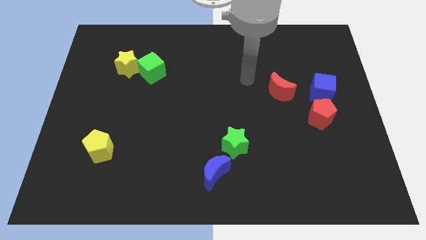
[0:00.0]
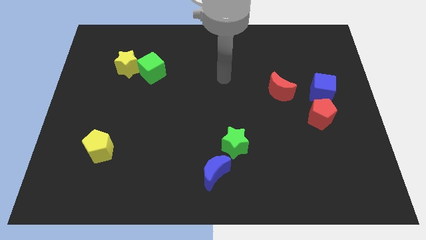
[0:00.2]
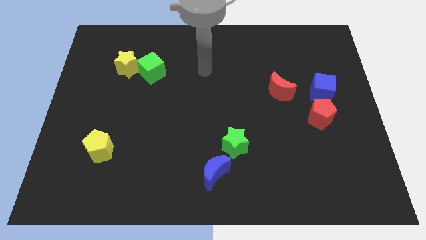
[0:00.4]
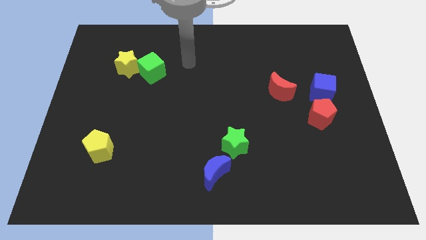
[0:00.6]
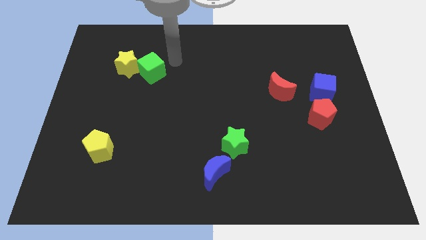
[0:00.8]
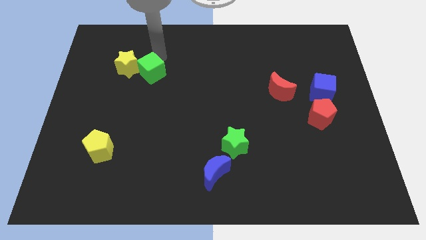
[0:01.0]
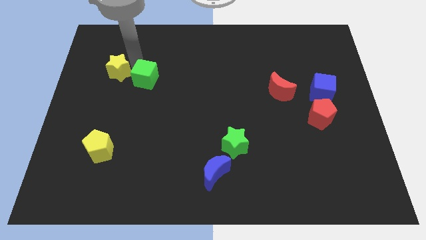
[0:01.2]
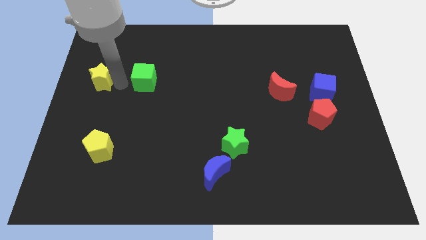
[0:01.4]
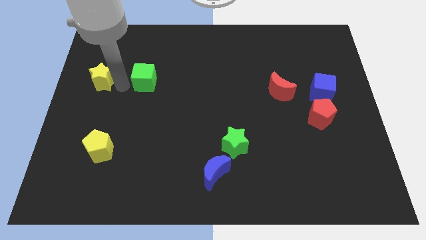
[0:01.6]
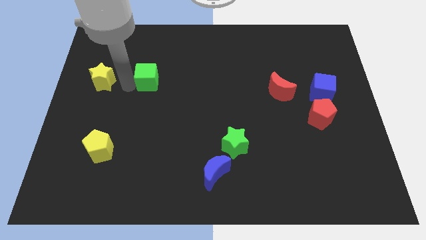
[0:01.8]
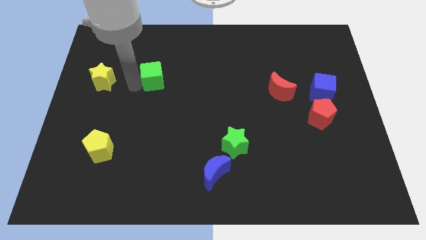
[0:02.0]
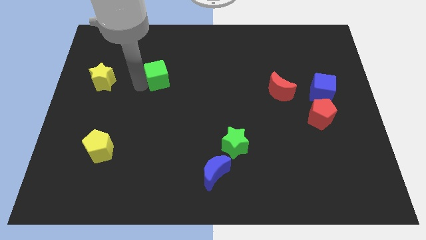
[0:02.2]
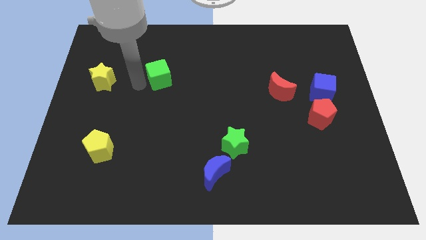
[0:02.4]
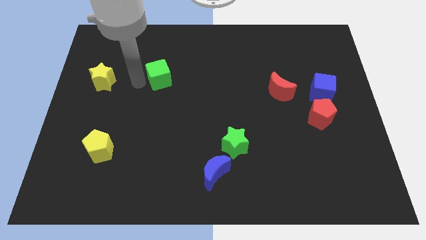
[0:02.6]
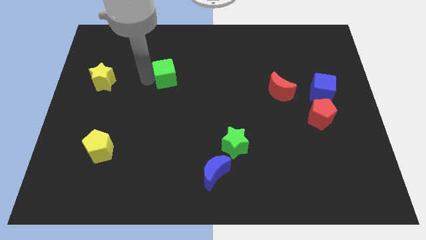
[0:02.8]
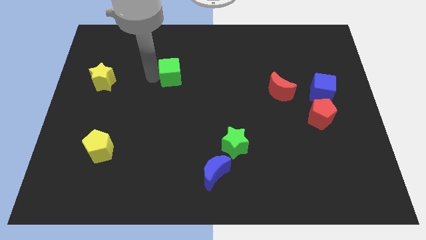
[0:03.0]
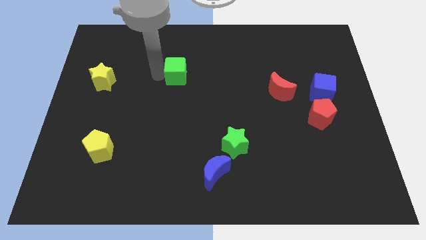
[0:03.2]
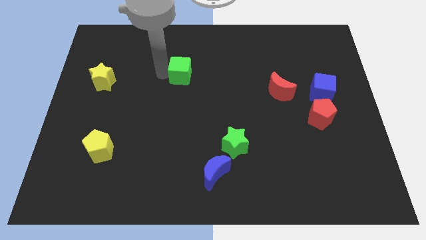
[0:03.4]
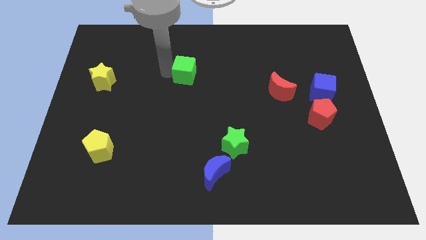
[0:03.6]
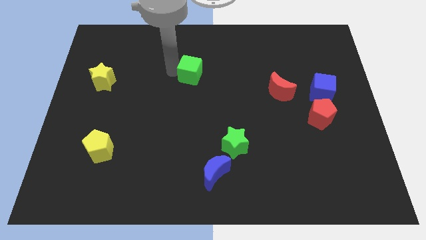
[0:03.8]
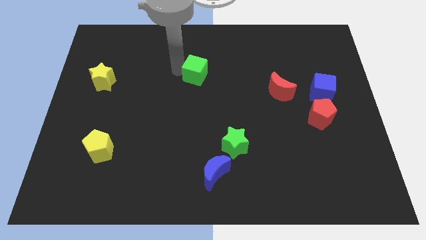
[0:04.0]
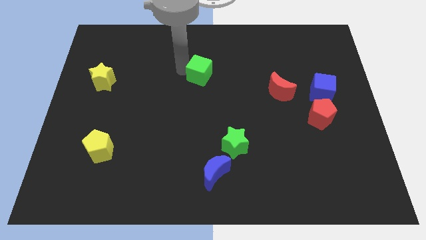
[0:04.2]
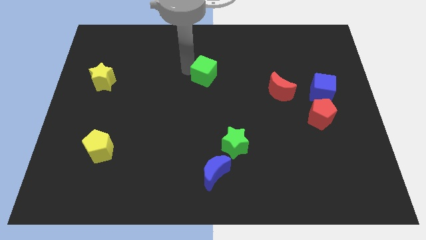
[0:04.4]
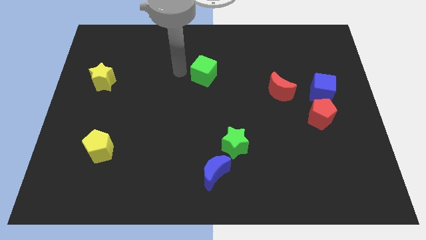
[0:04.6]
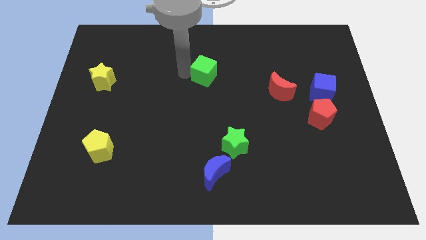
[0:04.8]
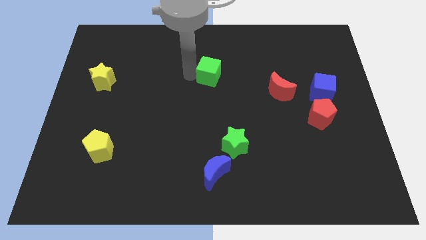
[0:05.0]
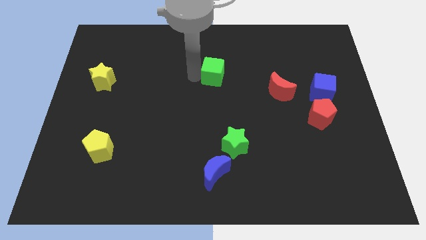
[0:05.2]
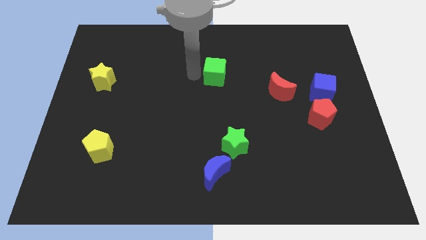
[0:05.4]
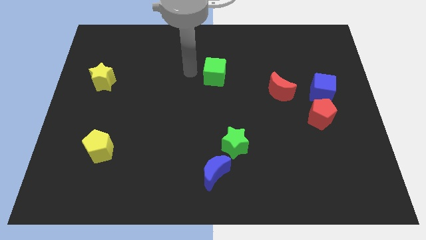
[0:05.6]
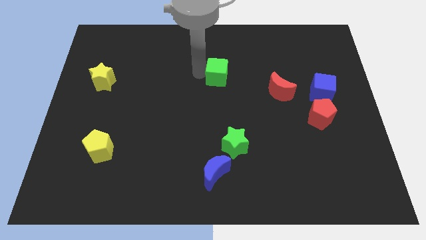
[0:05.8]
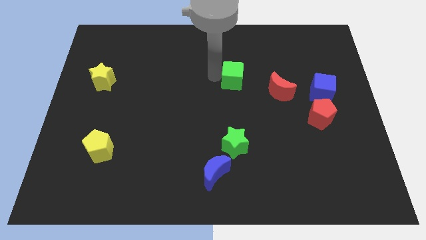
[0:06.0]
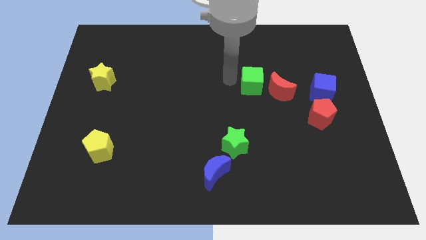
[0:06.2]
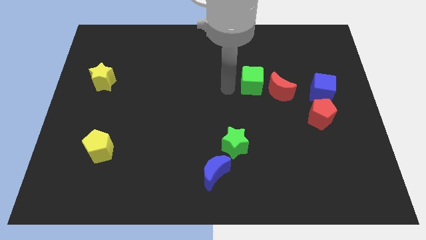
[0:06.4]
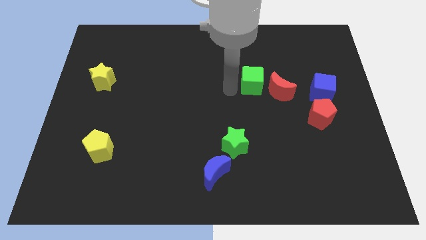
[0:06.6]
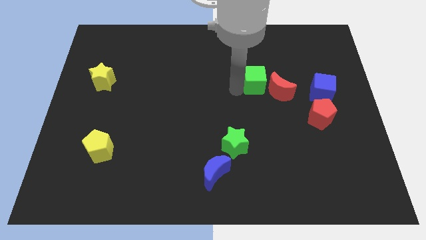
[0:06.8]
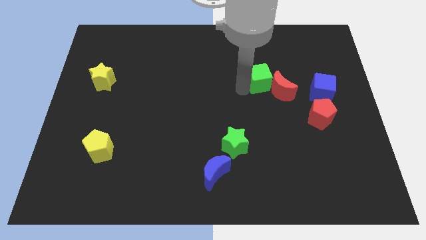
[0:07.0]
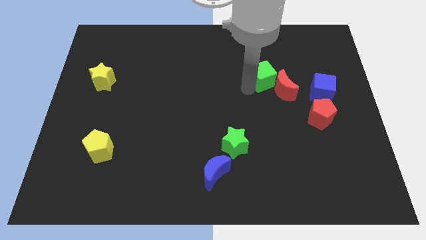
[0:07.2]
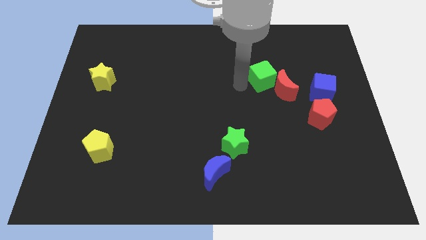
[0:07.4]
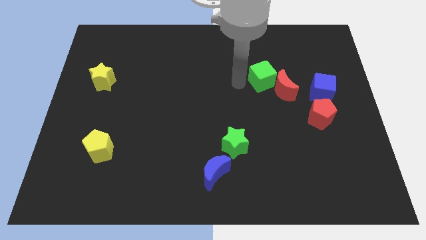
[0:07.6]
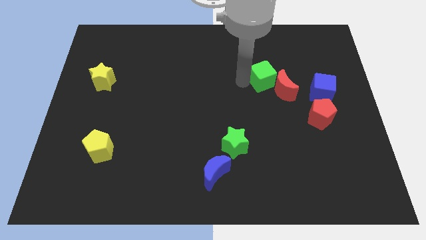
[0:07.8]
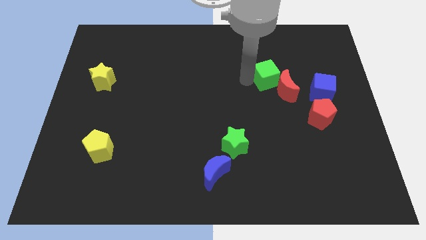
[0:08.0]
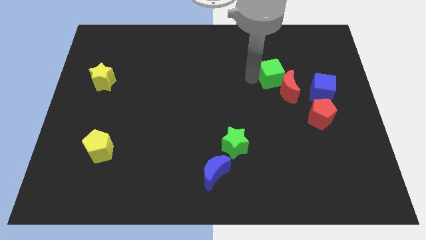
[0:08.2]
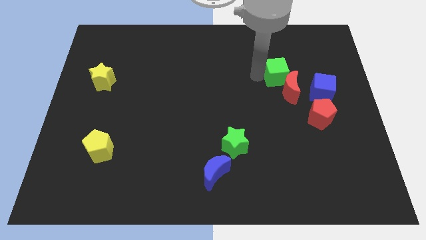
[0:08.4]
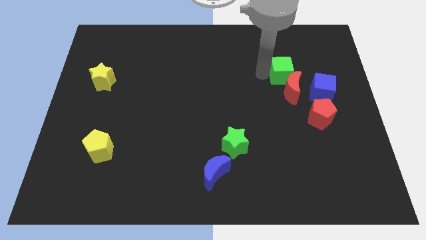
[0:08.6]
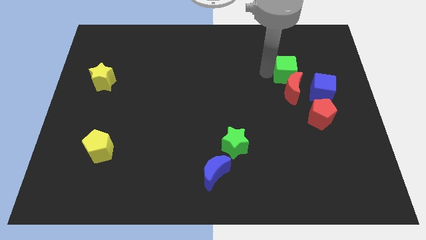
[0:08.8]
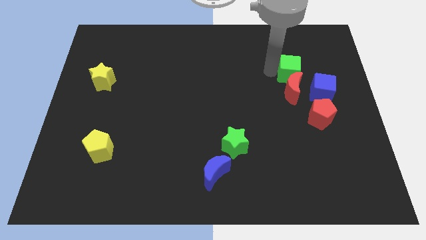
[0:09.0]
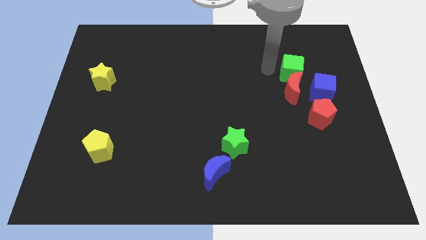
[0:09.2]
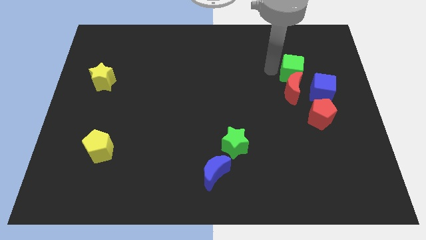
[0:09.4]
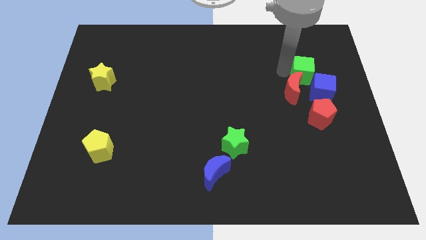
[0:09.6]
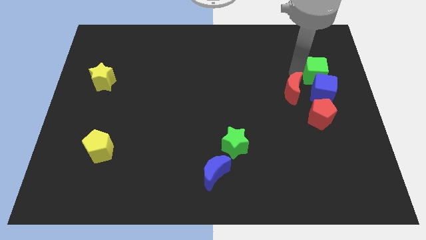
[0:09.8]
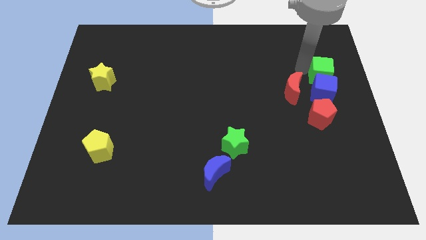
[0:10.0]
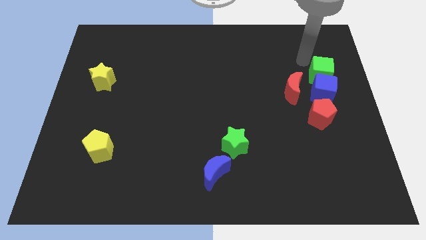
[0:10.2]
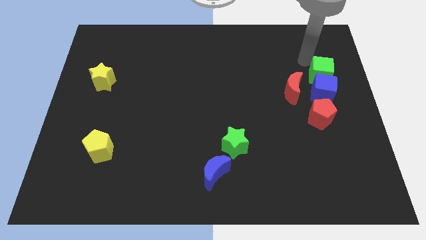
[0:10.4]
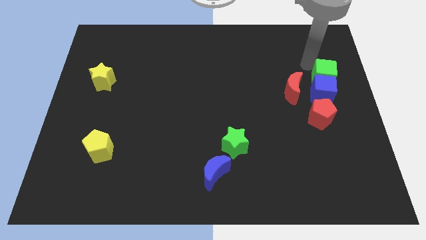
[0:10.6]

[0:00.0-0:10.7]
push the green cube right of the red moon

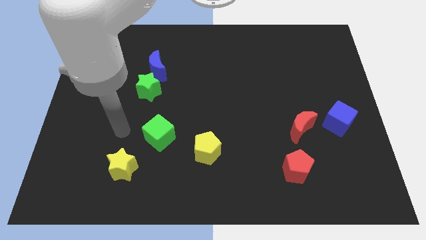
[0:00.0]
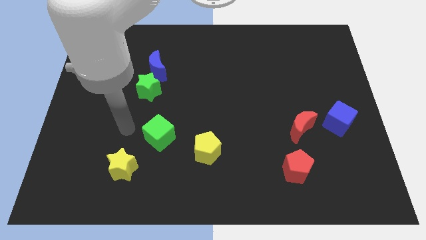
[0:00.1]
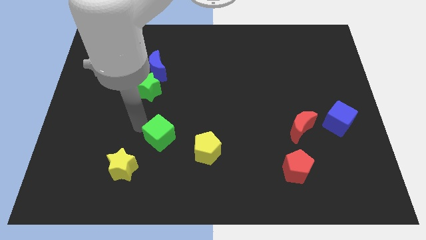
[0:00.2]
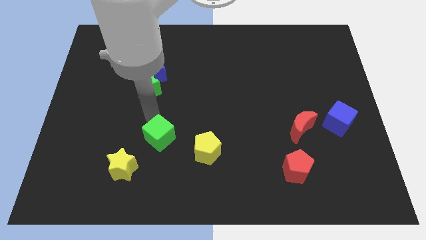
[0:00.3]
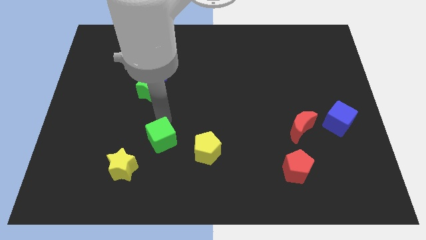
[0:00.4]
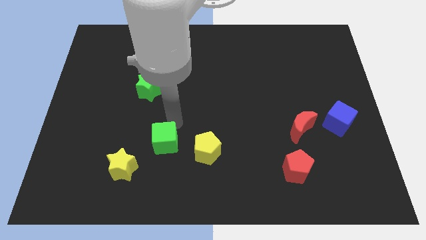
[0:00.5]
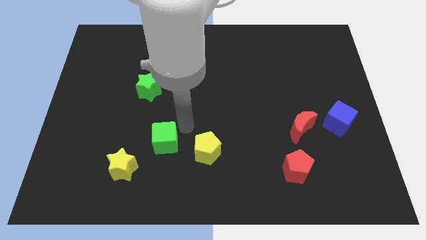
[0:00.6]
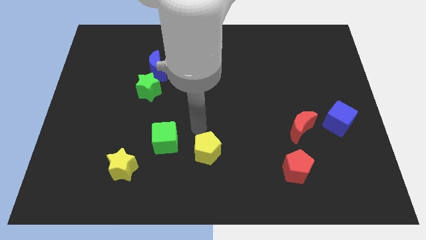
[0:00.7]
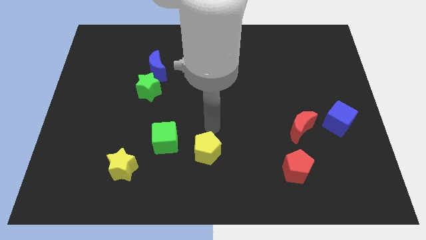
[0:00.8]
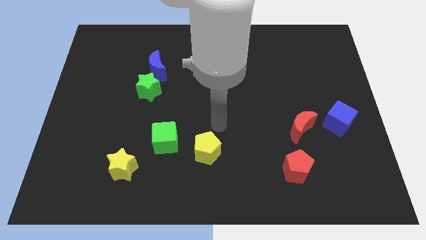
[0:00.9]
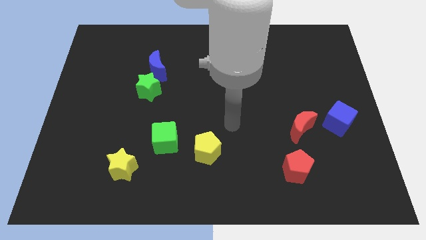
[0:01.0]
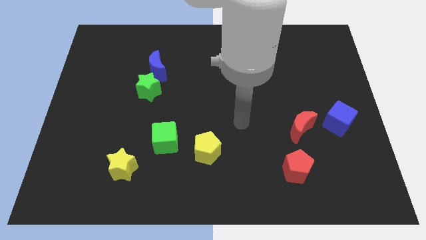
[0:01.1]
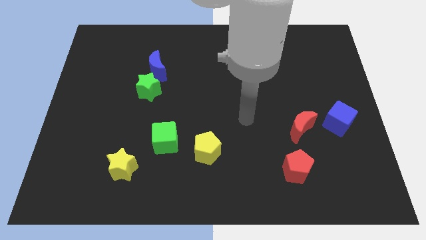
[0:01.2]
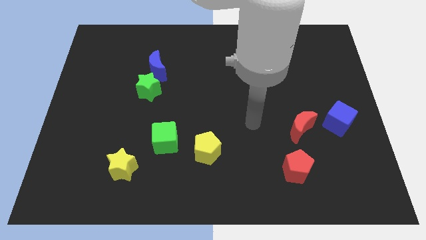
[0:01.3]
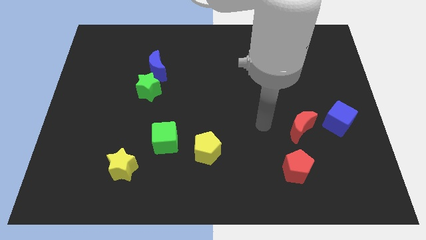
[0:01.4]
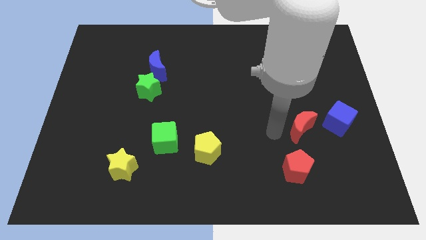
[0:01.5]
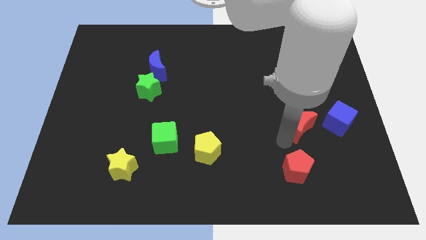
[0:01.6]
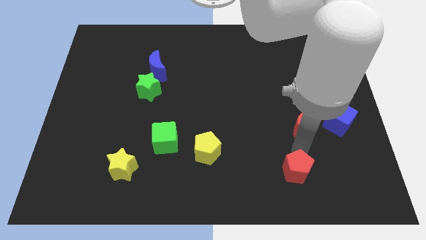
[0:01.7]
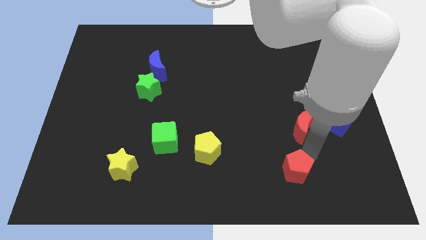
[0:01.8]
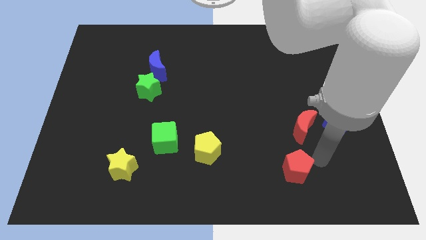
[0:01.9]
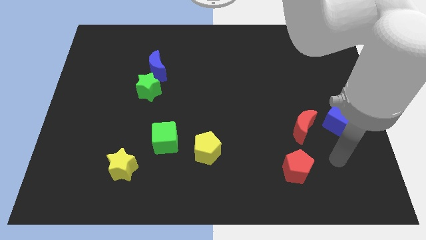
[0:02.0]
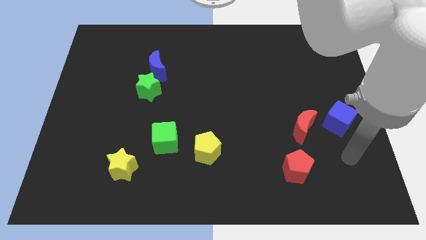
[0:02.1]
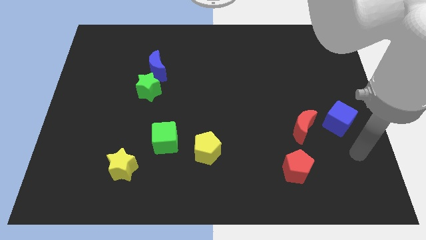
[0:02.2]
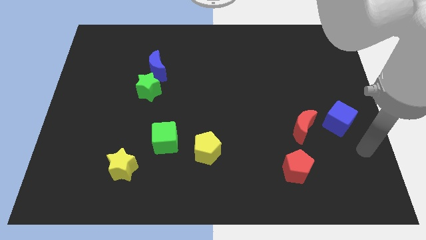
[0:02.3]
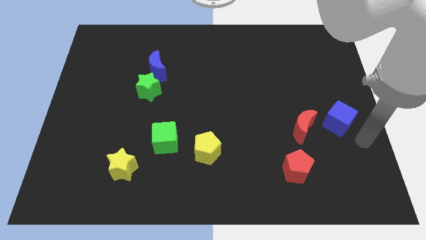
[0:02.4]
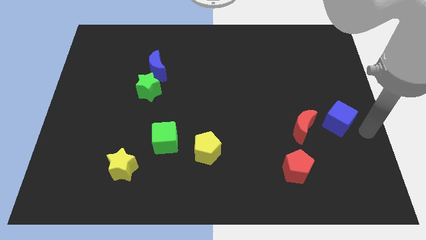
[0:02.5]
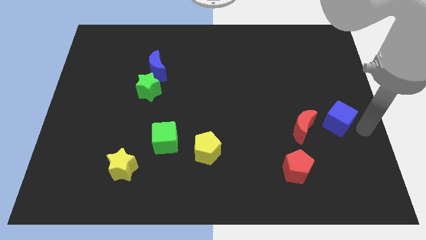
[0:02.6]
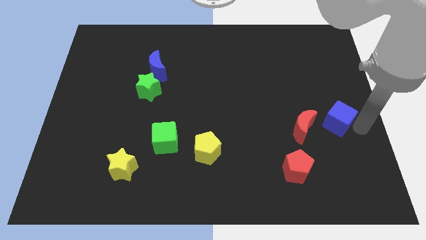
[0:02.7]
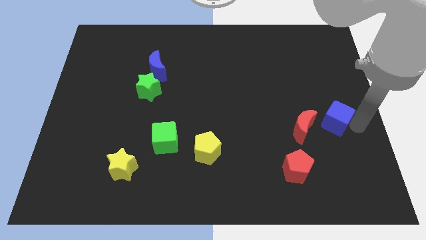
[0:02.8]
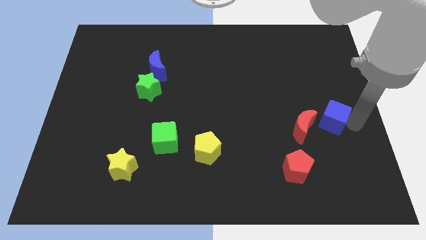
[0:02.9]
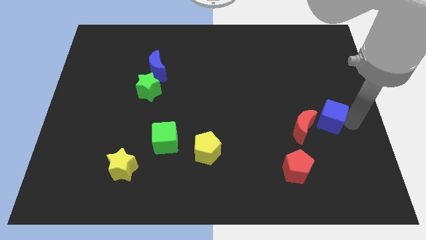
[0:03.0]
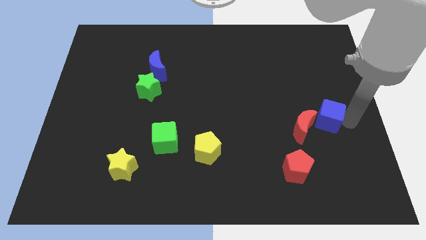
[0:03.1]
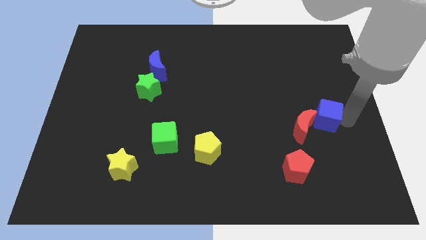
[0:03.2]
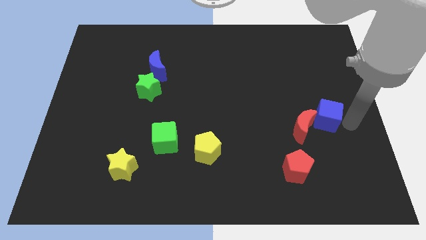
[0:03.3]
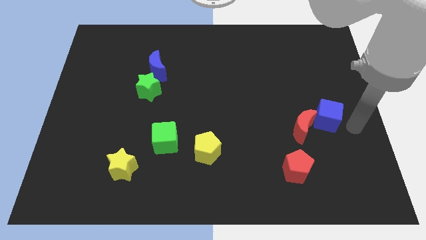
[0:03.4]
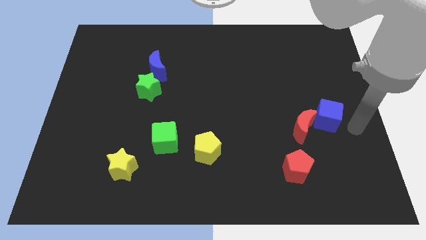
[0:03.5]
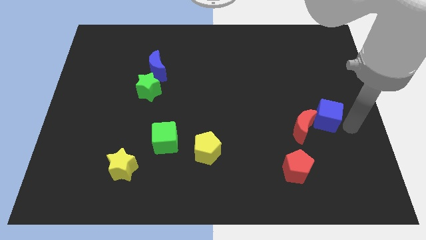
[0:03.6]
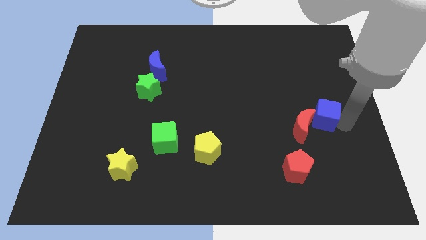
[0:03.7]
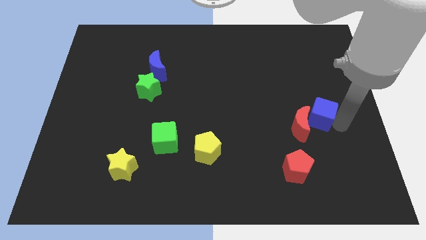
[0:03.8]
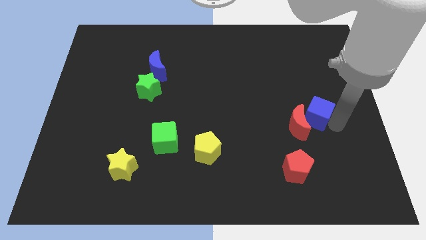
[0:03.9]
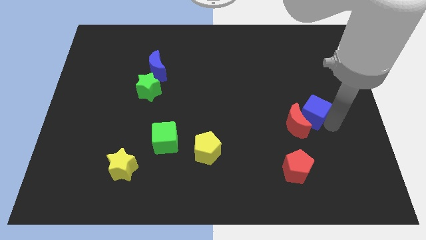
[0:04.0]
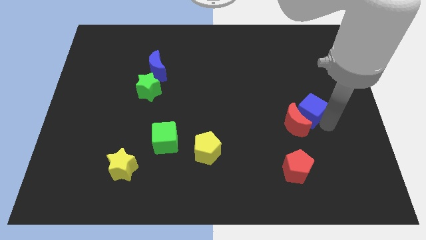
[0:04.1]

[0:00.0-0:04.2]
move the blue cube to the top of the red moon
